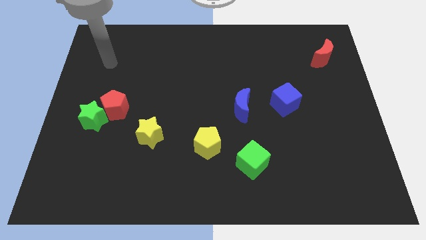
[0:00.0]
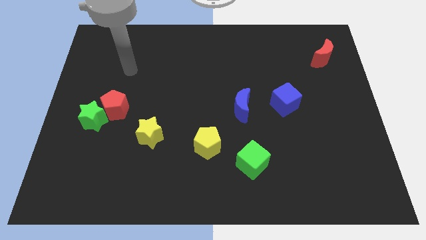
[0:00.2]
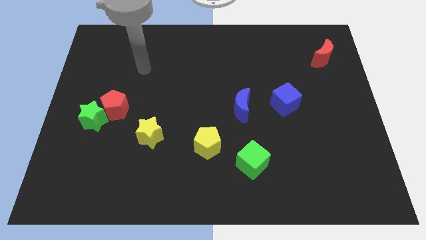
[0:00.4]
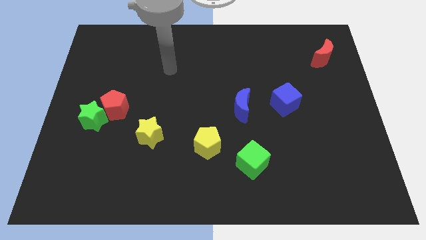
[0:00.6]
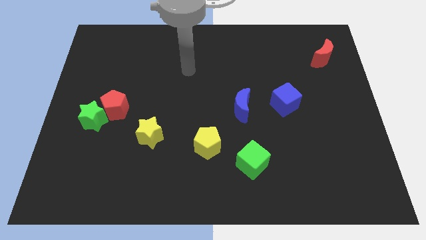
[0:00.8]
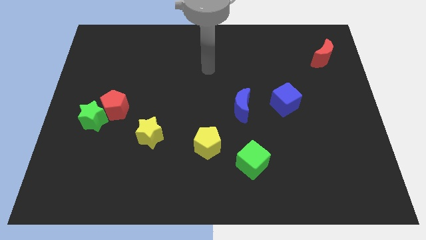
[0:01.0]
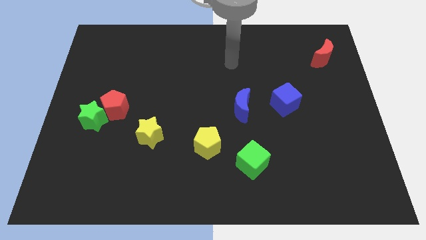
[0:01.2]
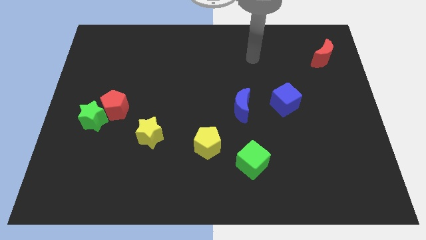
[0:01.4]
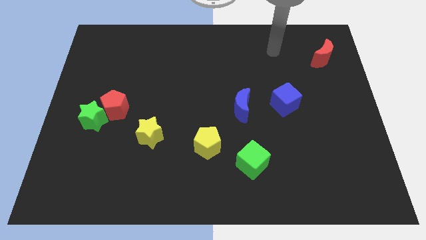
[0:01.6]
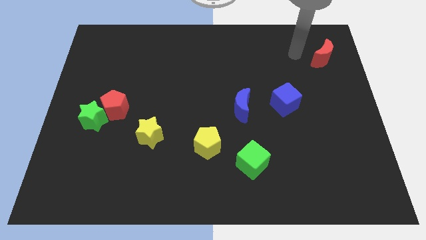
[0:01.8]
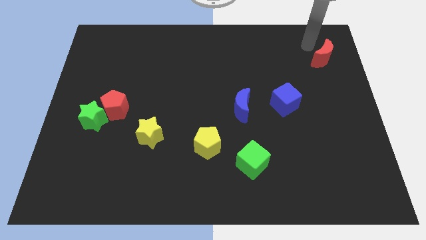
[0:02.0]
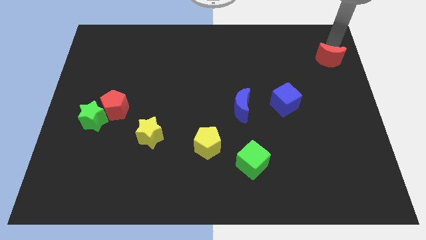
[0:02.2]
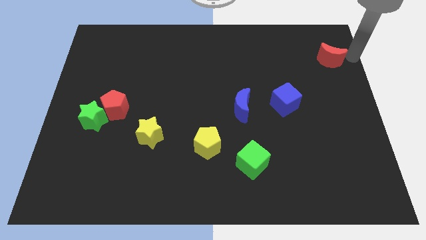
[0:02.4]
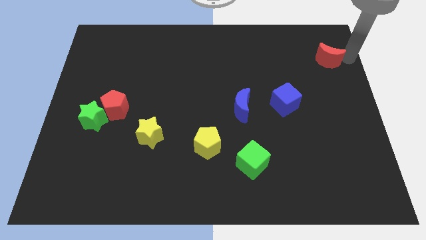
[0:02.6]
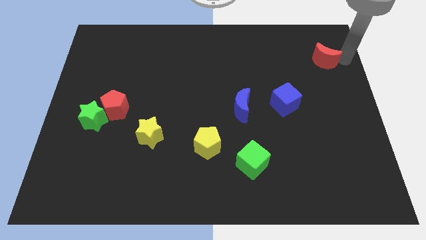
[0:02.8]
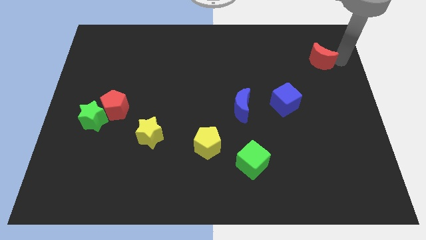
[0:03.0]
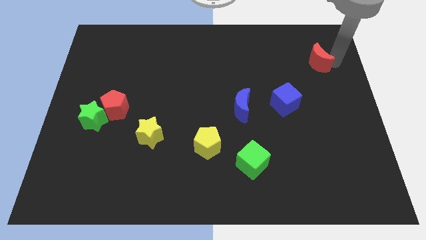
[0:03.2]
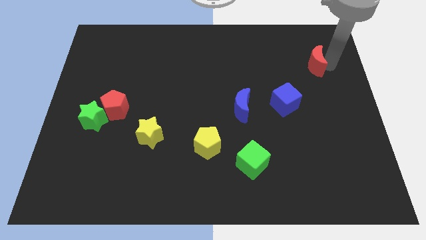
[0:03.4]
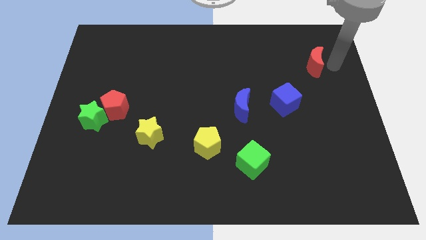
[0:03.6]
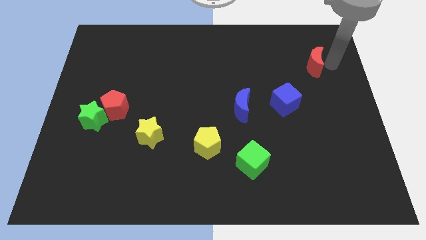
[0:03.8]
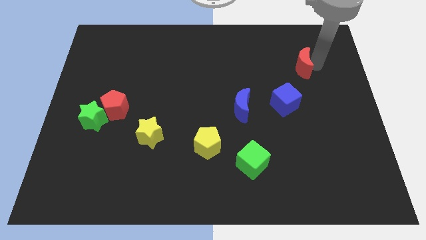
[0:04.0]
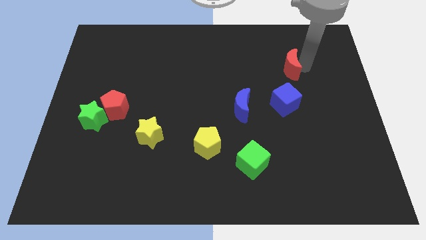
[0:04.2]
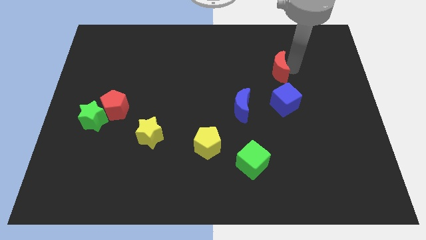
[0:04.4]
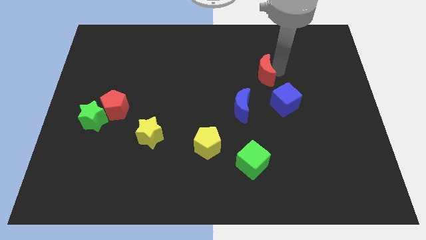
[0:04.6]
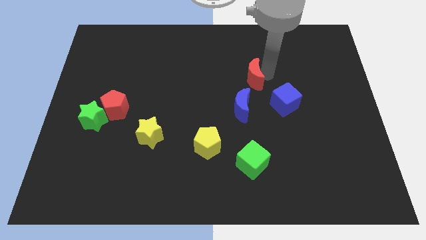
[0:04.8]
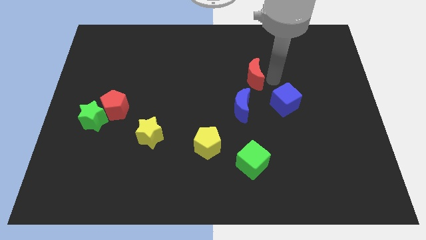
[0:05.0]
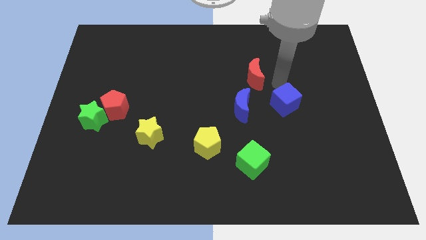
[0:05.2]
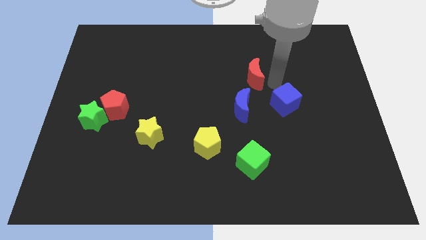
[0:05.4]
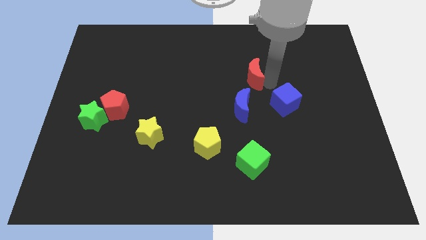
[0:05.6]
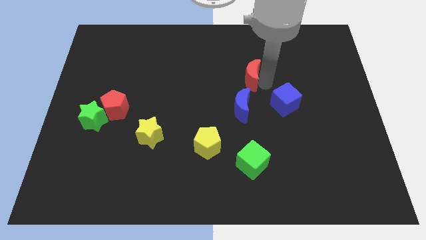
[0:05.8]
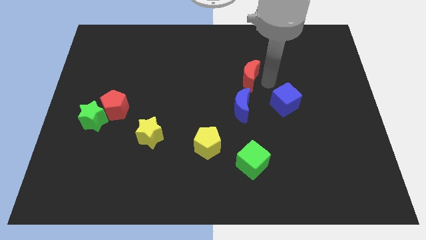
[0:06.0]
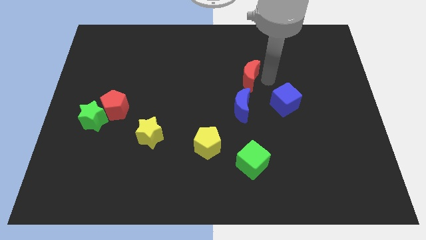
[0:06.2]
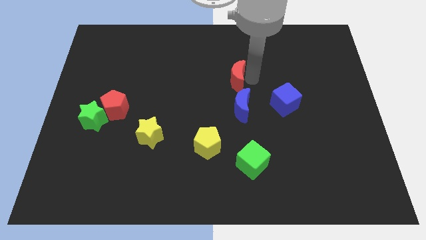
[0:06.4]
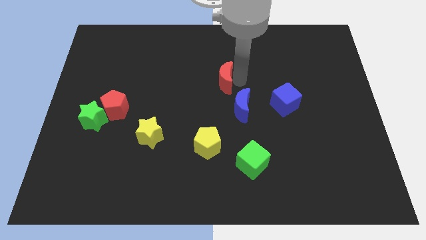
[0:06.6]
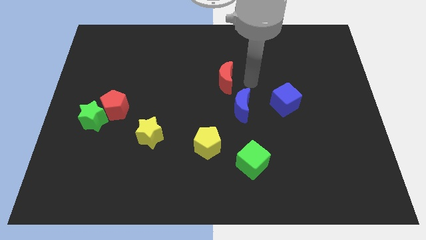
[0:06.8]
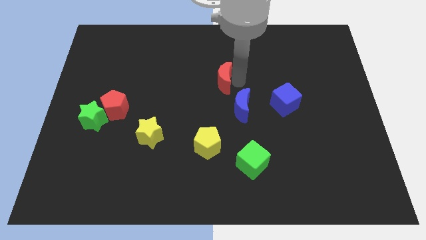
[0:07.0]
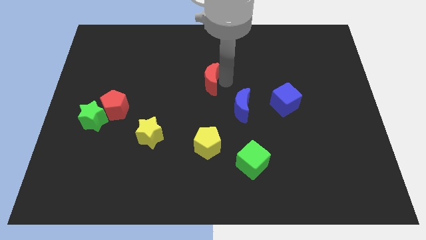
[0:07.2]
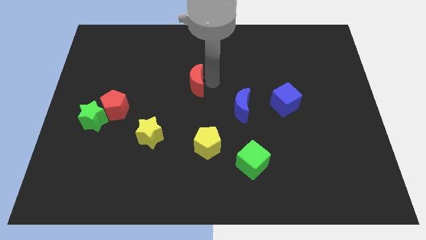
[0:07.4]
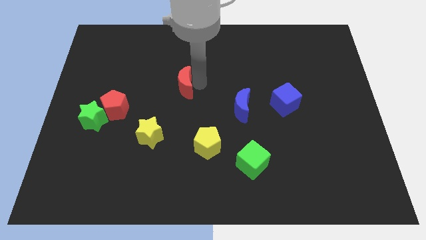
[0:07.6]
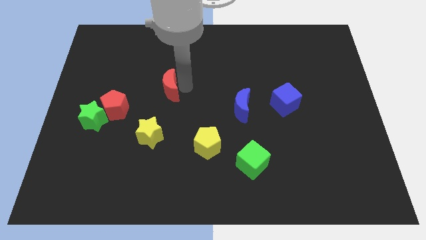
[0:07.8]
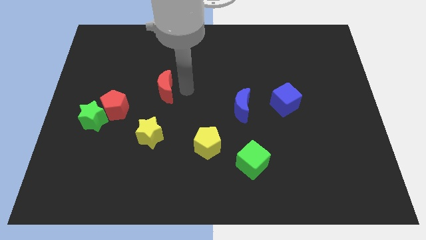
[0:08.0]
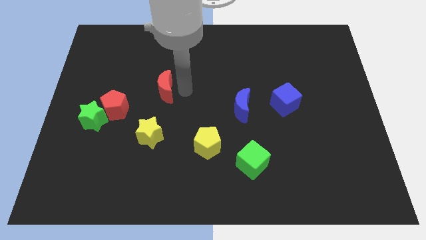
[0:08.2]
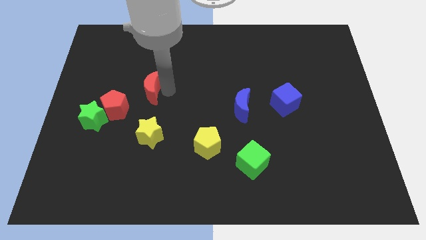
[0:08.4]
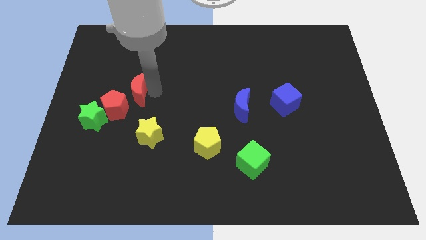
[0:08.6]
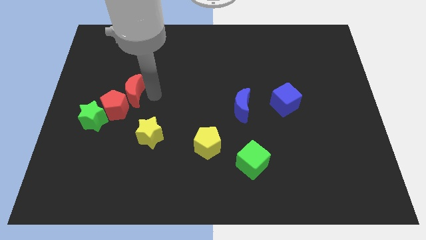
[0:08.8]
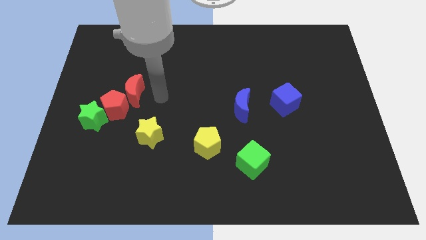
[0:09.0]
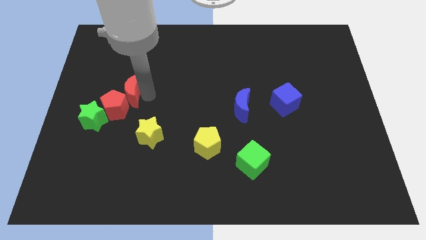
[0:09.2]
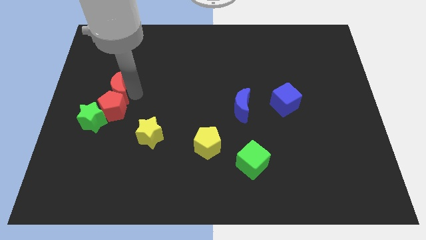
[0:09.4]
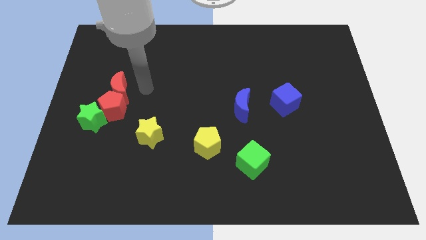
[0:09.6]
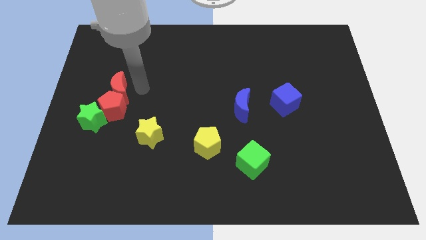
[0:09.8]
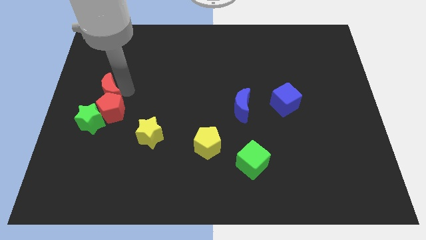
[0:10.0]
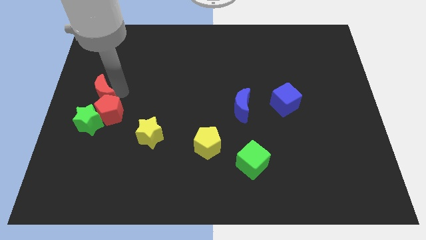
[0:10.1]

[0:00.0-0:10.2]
slide the red moon to the left side of the board

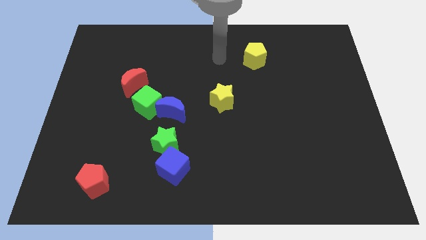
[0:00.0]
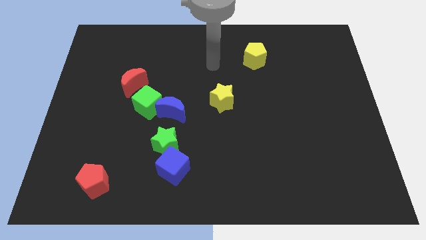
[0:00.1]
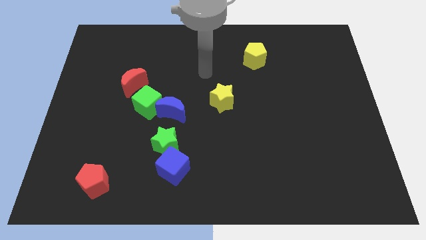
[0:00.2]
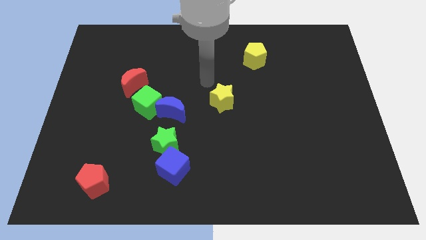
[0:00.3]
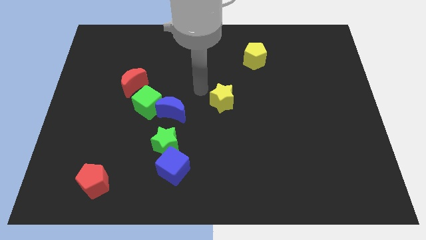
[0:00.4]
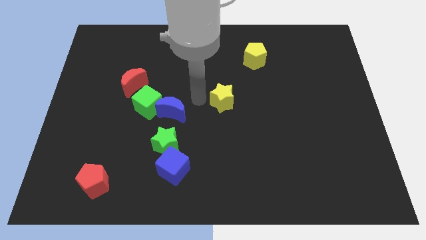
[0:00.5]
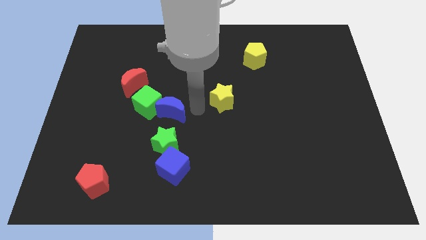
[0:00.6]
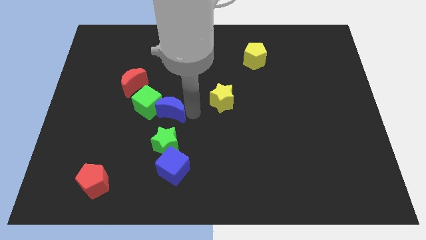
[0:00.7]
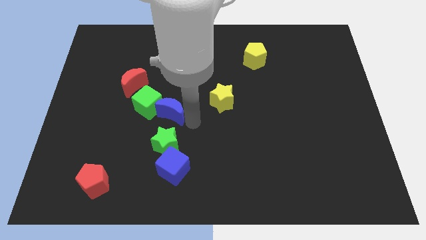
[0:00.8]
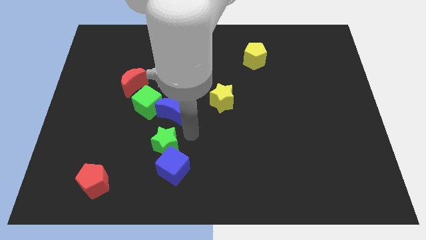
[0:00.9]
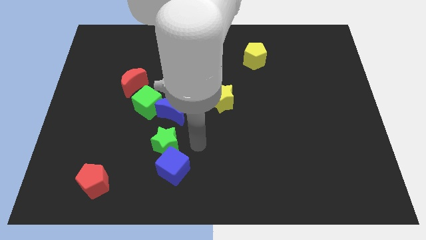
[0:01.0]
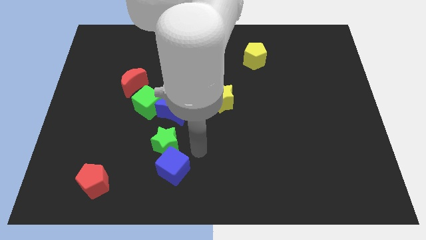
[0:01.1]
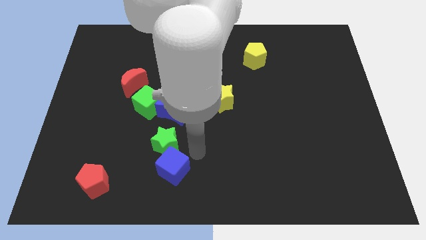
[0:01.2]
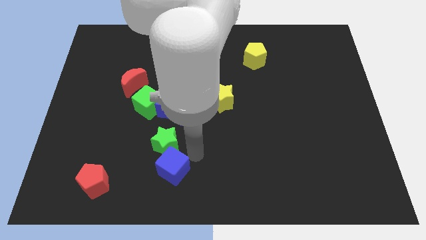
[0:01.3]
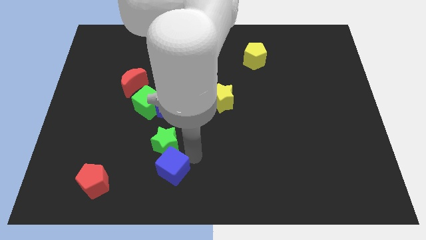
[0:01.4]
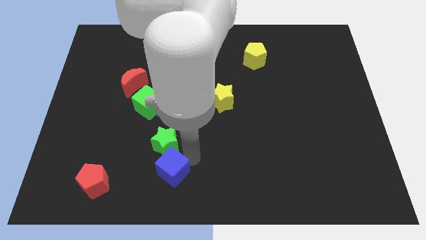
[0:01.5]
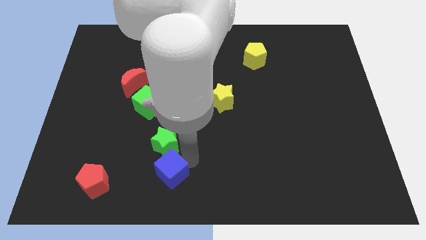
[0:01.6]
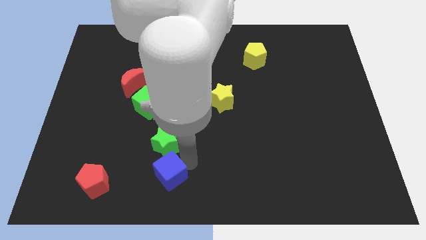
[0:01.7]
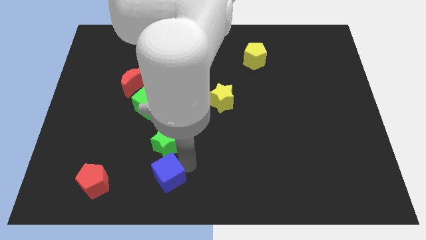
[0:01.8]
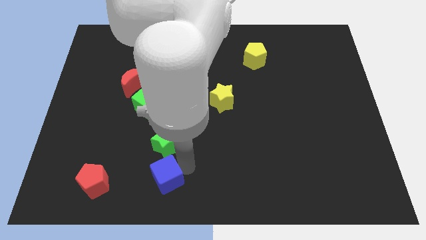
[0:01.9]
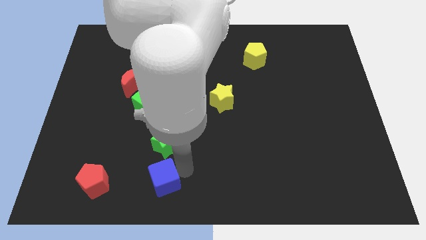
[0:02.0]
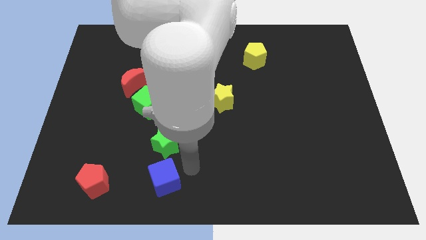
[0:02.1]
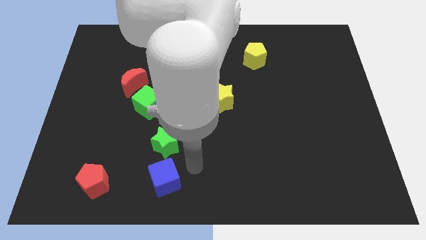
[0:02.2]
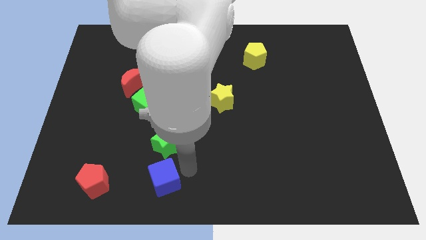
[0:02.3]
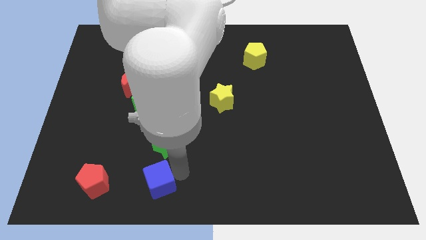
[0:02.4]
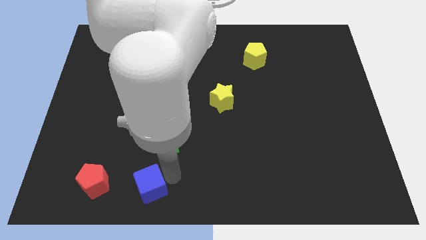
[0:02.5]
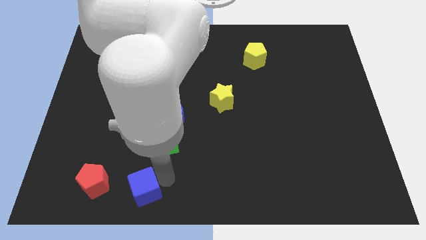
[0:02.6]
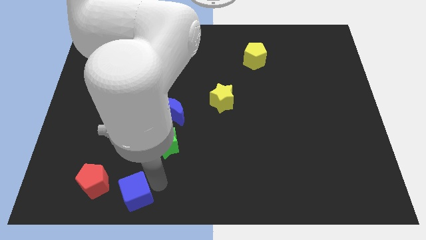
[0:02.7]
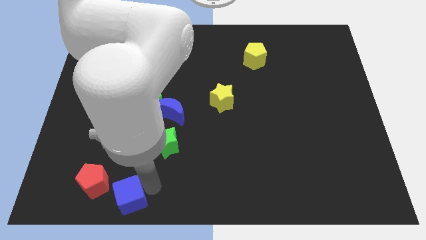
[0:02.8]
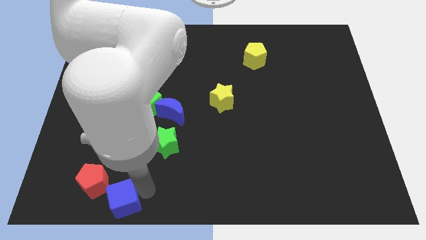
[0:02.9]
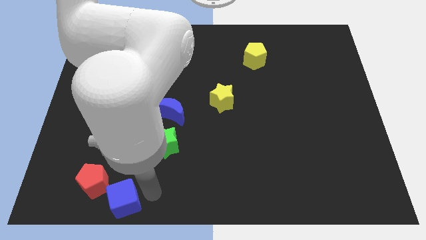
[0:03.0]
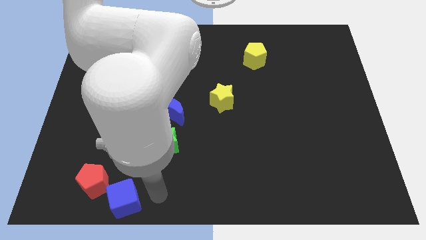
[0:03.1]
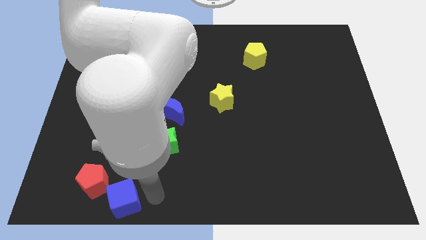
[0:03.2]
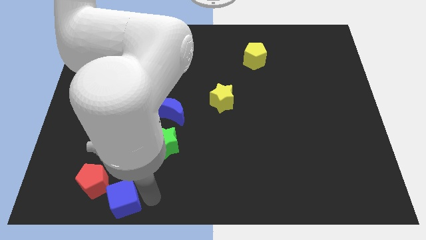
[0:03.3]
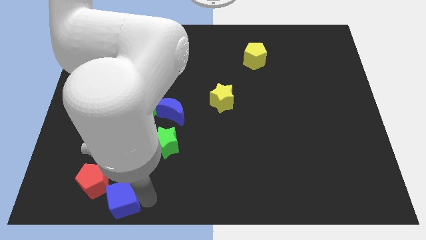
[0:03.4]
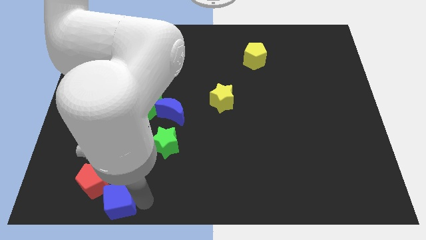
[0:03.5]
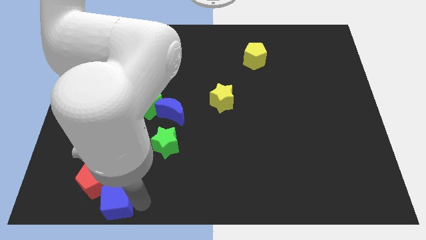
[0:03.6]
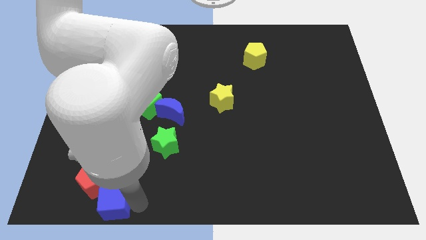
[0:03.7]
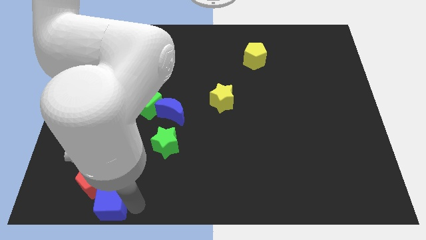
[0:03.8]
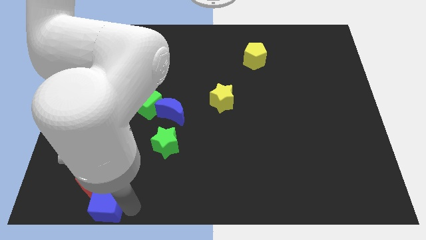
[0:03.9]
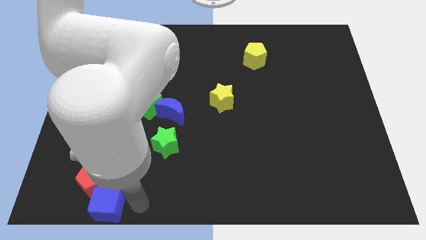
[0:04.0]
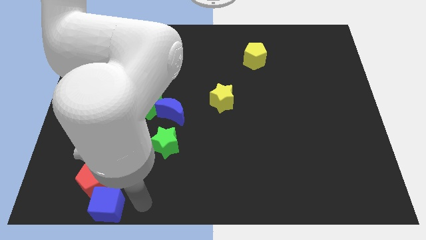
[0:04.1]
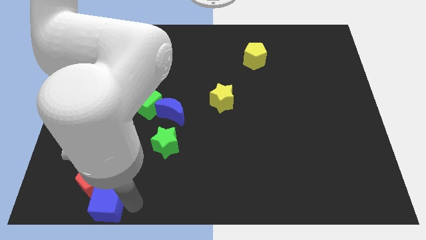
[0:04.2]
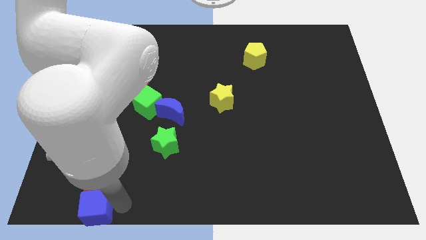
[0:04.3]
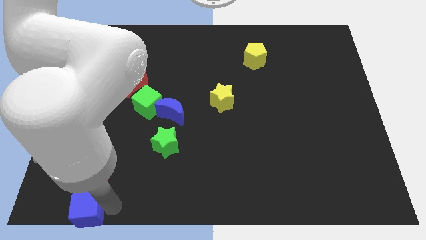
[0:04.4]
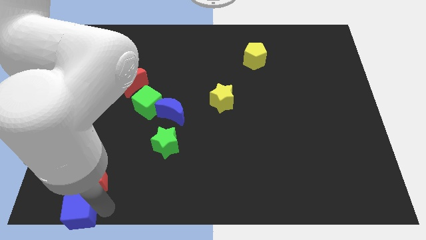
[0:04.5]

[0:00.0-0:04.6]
move the blue cube to the lower left corner
